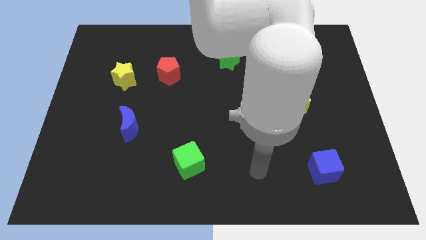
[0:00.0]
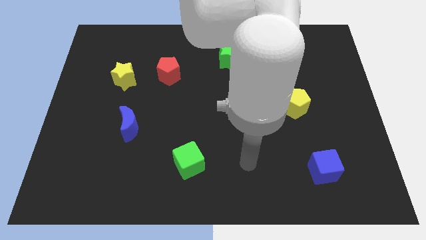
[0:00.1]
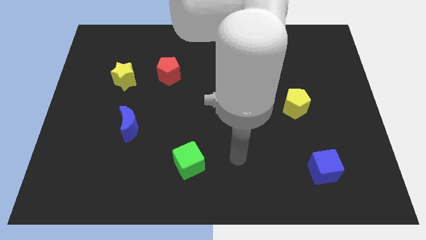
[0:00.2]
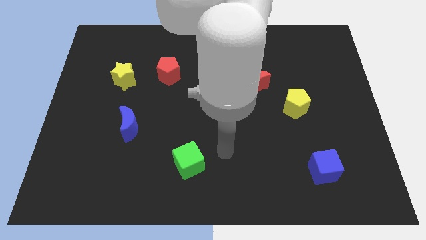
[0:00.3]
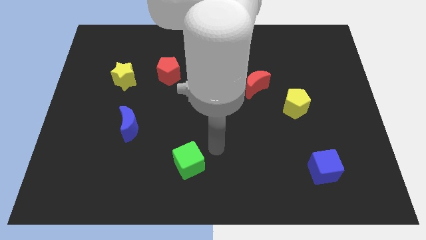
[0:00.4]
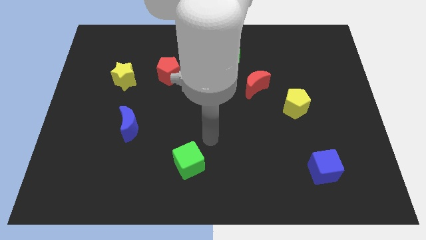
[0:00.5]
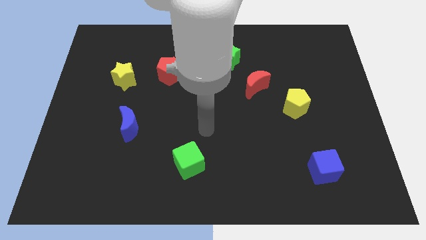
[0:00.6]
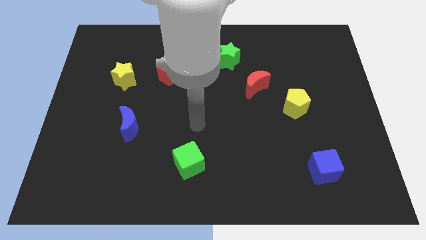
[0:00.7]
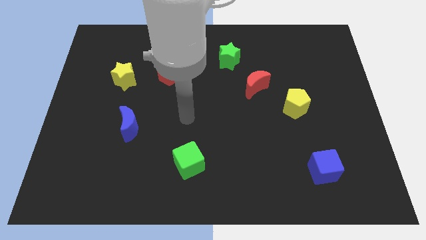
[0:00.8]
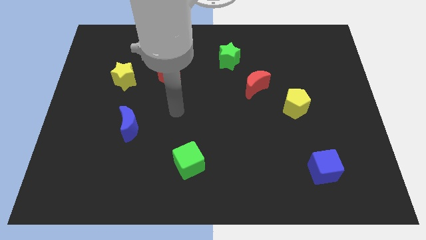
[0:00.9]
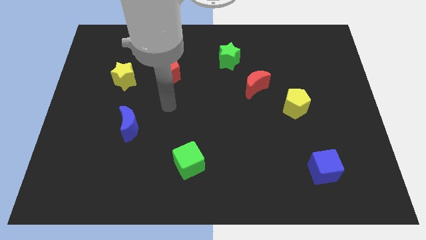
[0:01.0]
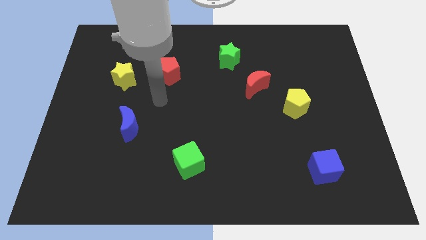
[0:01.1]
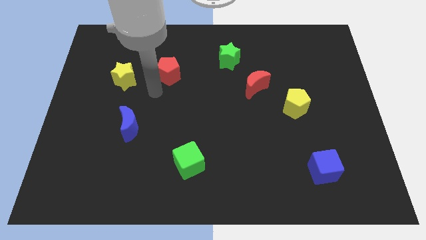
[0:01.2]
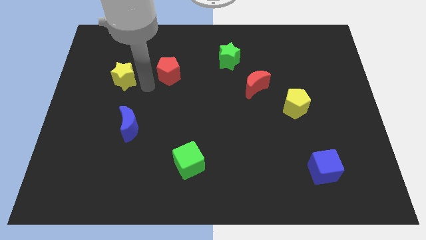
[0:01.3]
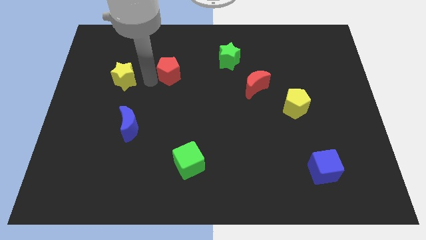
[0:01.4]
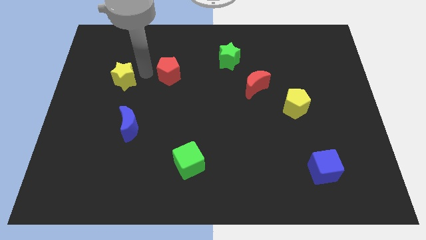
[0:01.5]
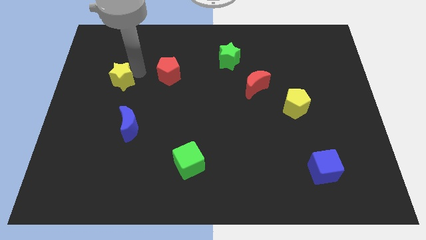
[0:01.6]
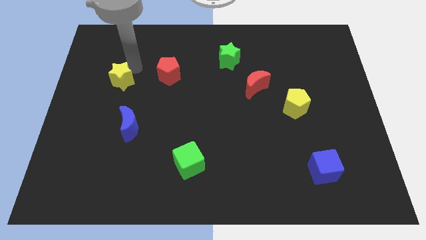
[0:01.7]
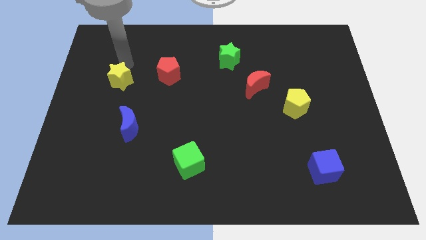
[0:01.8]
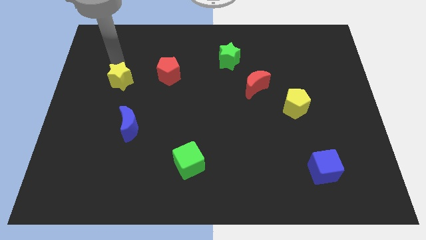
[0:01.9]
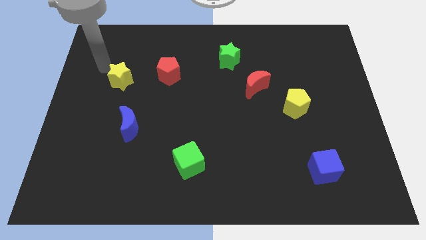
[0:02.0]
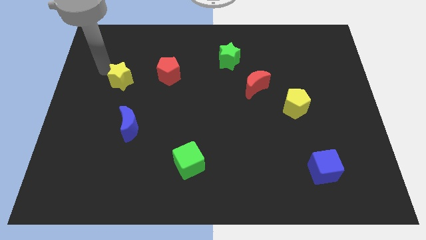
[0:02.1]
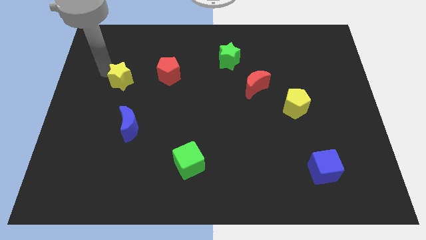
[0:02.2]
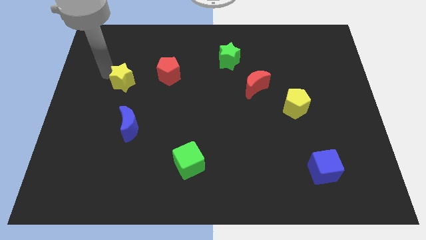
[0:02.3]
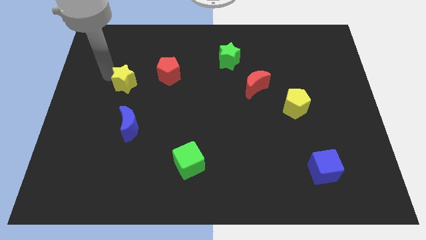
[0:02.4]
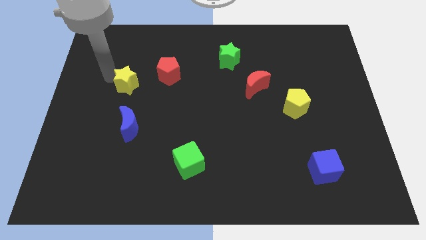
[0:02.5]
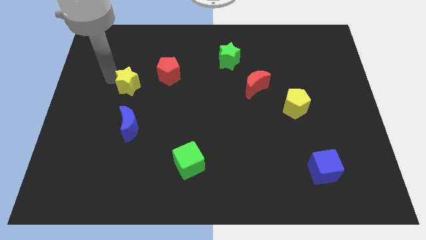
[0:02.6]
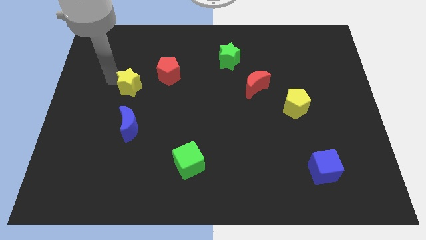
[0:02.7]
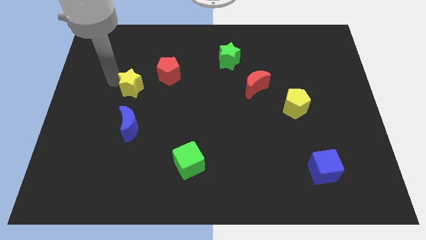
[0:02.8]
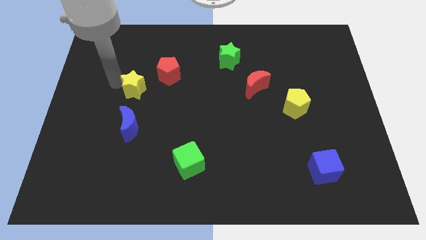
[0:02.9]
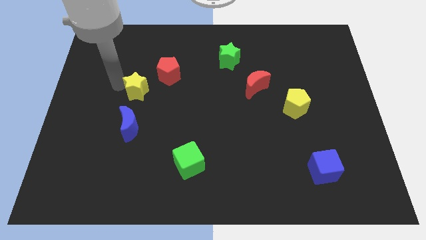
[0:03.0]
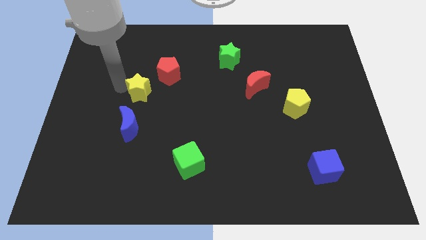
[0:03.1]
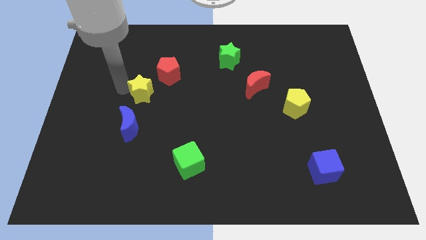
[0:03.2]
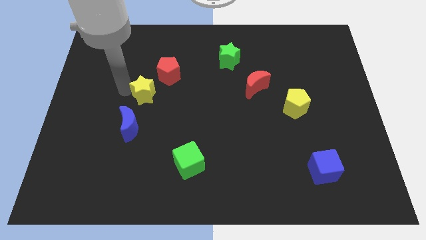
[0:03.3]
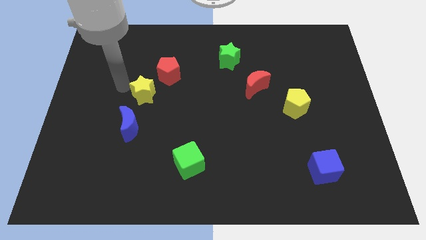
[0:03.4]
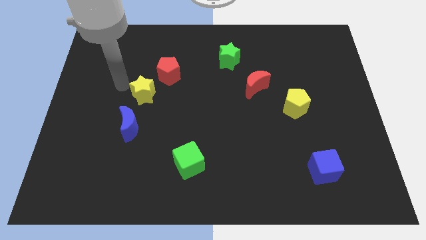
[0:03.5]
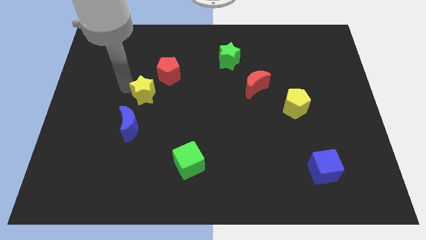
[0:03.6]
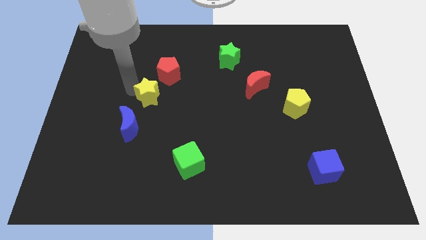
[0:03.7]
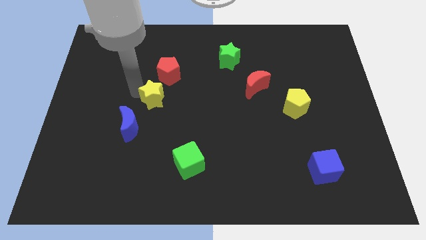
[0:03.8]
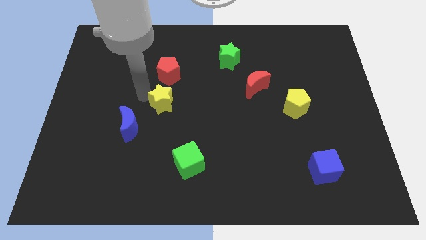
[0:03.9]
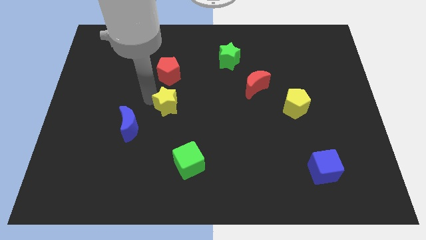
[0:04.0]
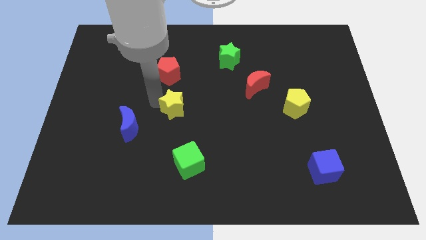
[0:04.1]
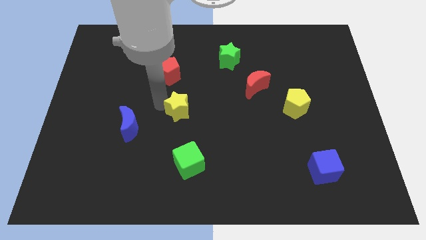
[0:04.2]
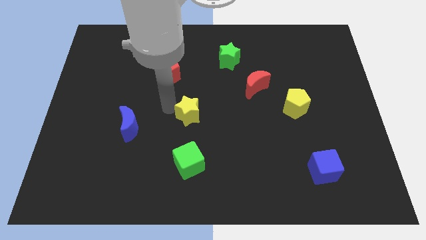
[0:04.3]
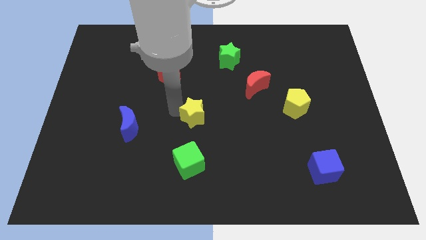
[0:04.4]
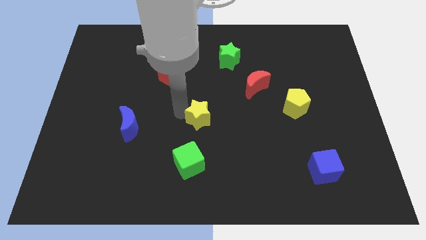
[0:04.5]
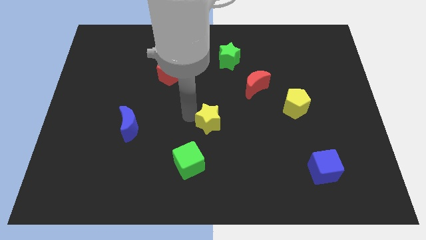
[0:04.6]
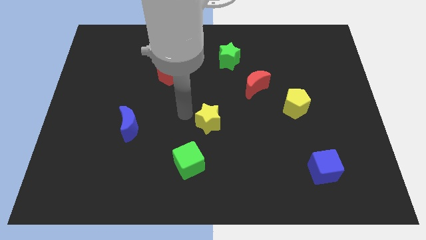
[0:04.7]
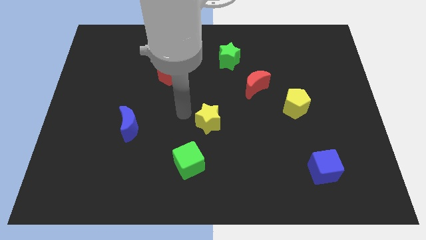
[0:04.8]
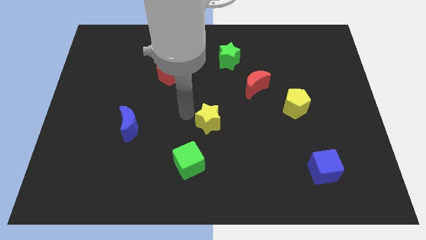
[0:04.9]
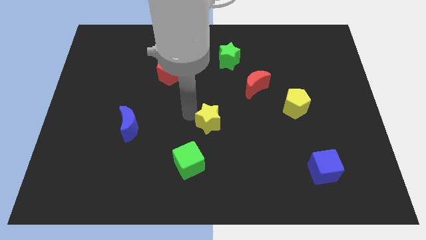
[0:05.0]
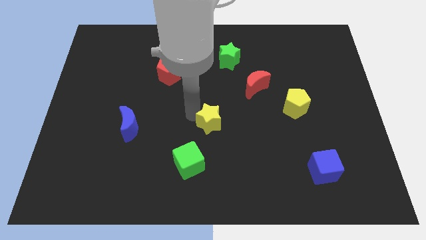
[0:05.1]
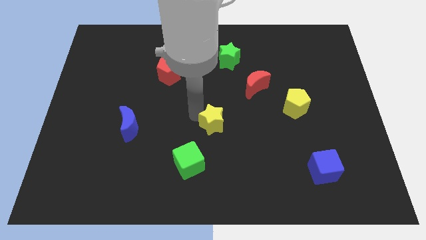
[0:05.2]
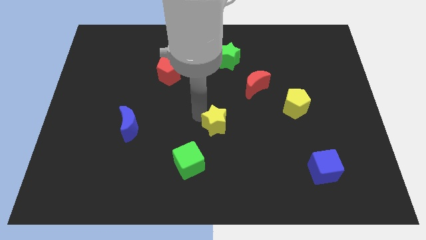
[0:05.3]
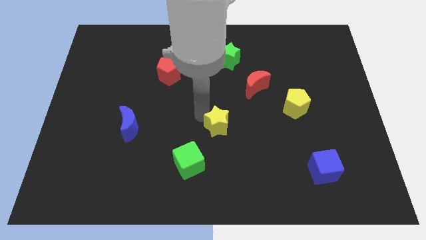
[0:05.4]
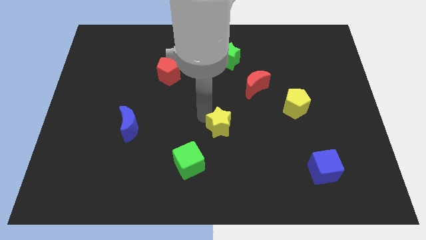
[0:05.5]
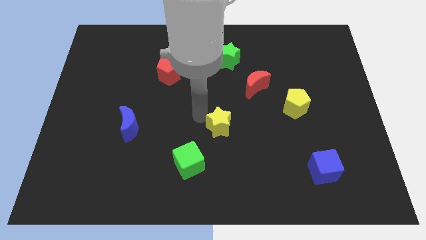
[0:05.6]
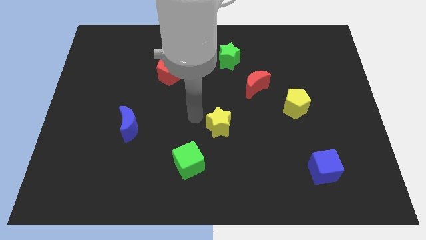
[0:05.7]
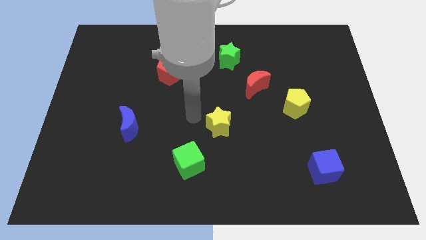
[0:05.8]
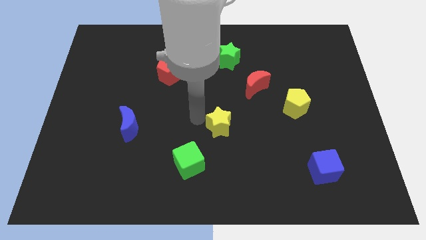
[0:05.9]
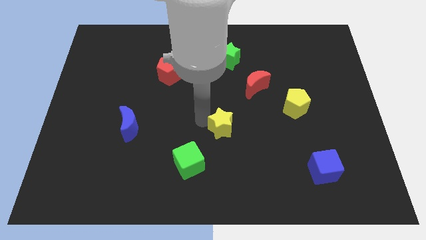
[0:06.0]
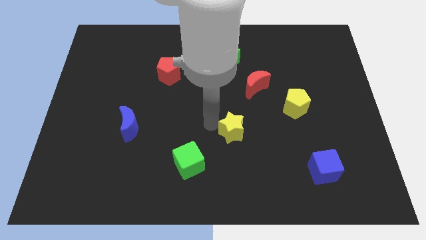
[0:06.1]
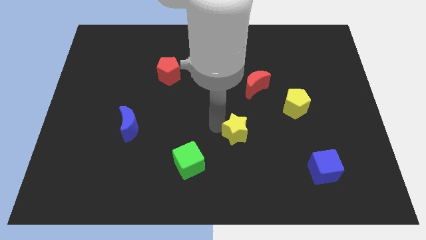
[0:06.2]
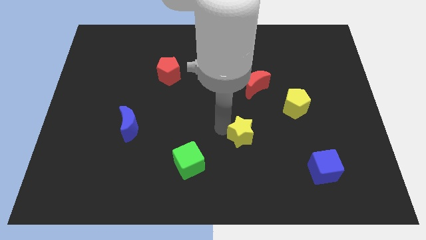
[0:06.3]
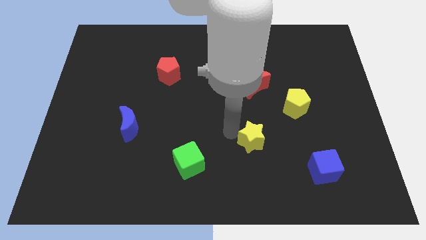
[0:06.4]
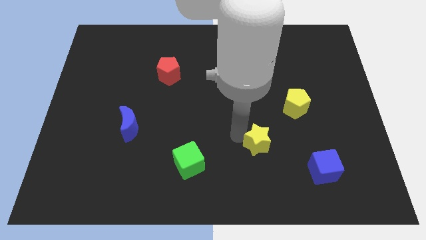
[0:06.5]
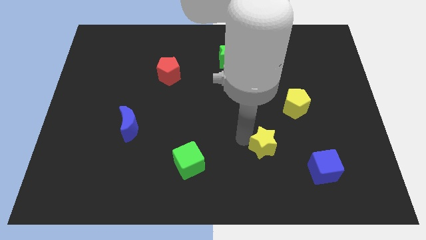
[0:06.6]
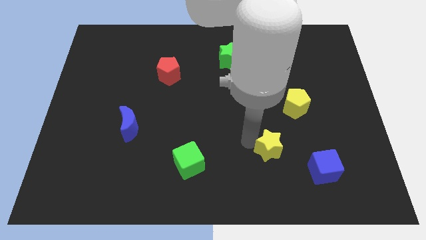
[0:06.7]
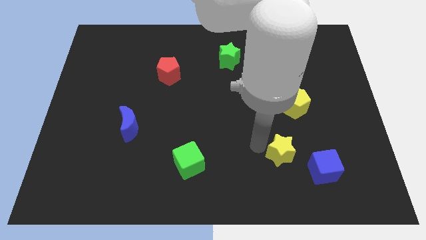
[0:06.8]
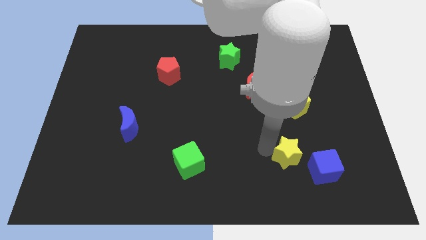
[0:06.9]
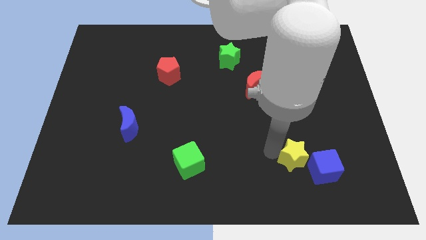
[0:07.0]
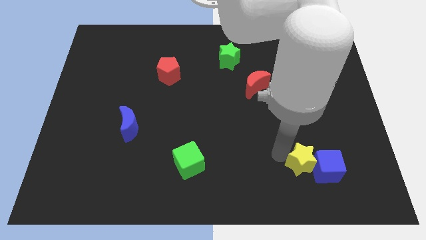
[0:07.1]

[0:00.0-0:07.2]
slide the yellow star next to the blue cube
